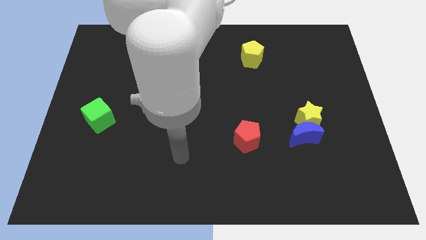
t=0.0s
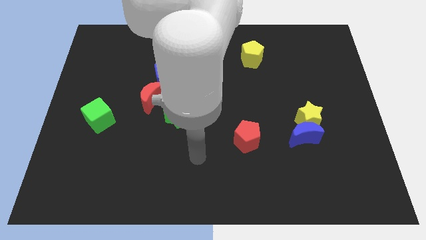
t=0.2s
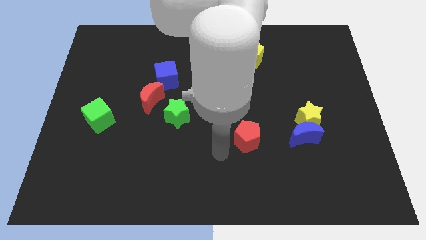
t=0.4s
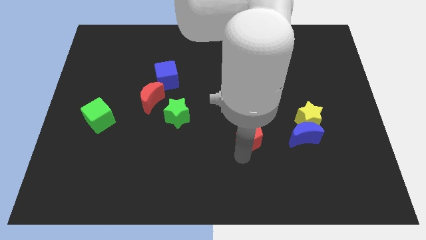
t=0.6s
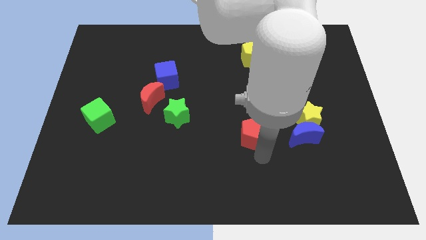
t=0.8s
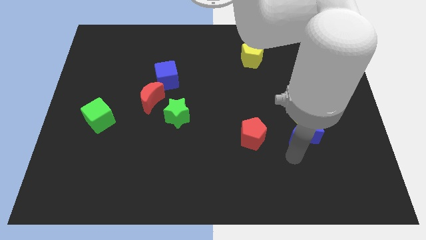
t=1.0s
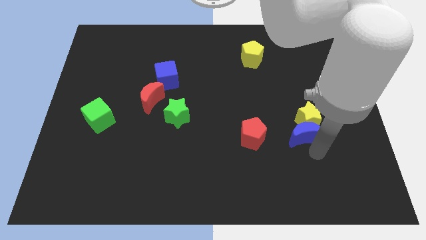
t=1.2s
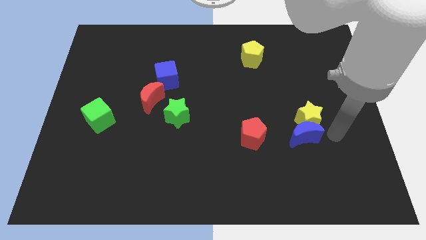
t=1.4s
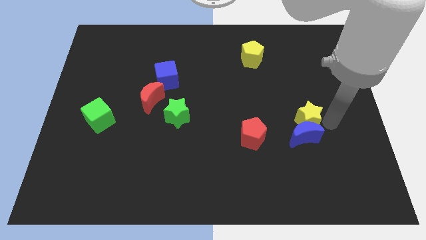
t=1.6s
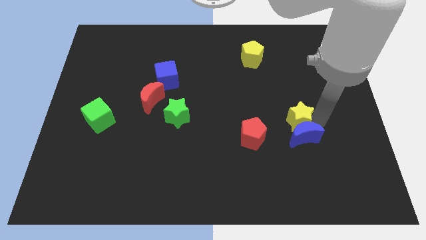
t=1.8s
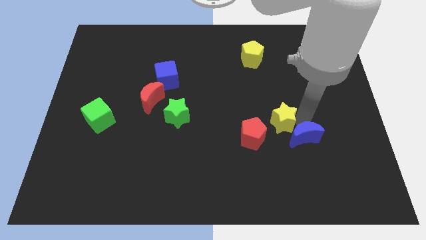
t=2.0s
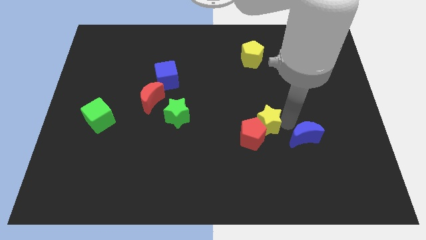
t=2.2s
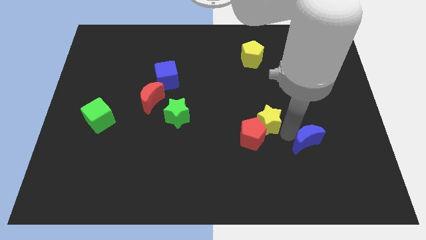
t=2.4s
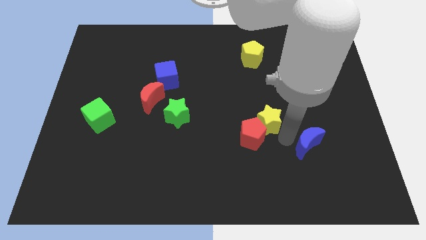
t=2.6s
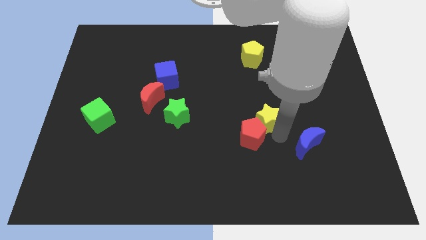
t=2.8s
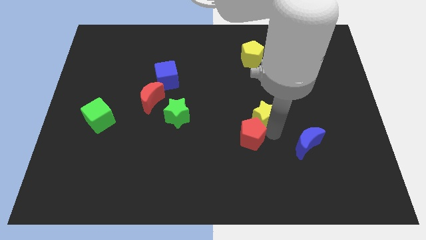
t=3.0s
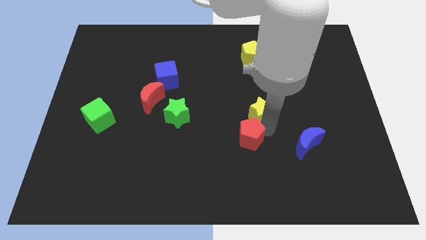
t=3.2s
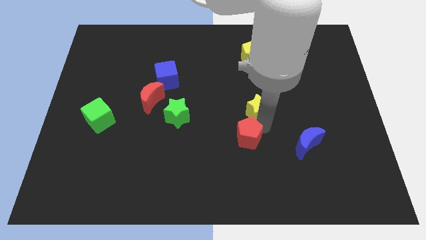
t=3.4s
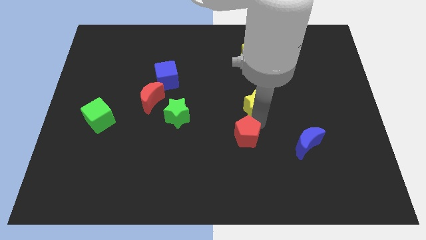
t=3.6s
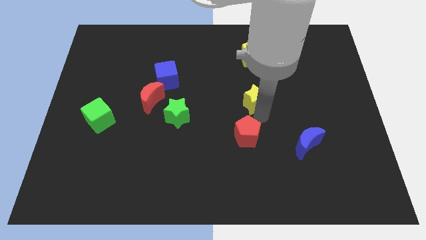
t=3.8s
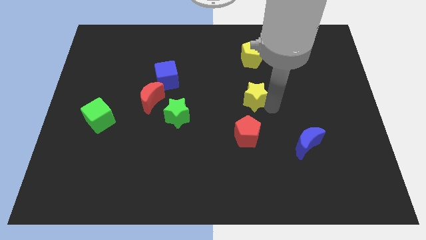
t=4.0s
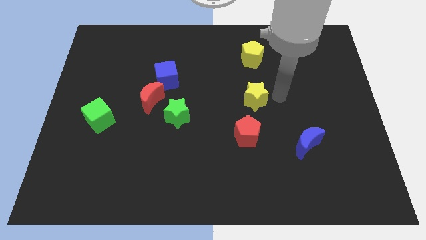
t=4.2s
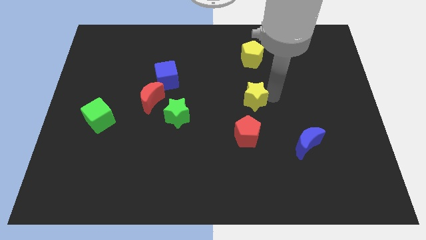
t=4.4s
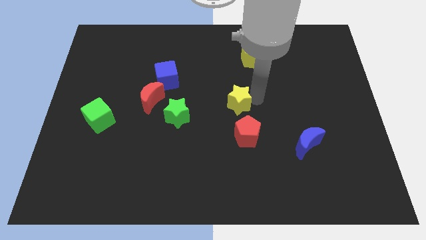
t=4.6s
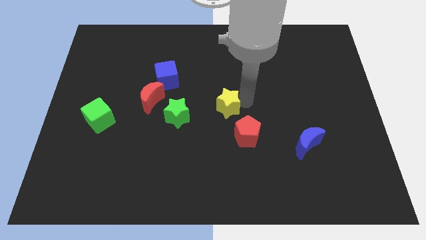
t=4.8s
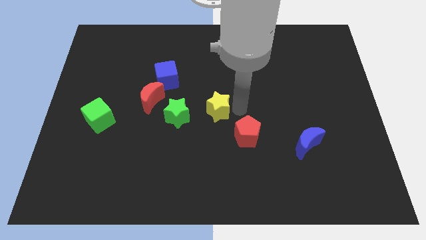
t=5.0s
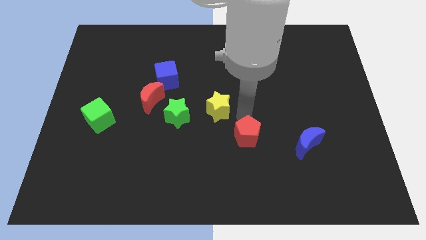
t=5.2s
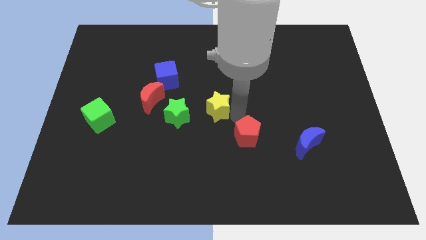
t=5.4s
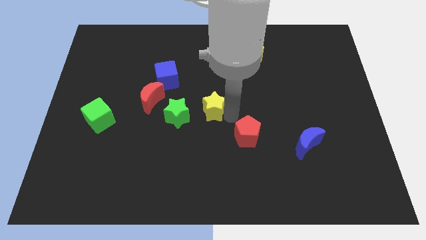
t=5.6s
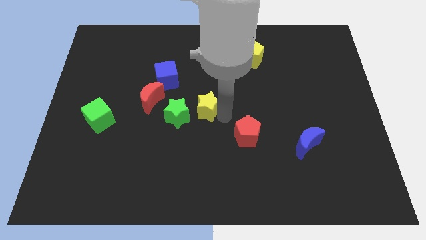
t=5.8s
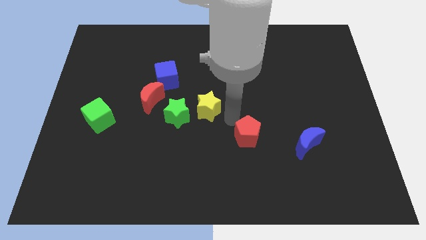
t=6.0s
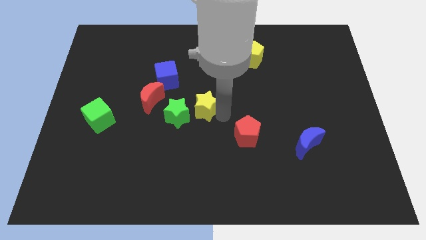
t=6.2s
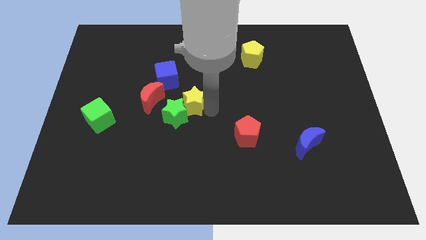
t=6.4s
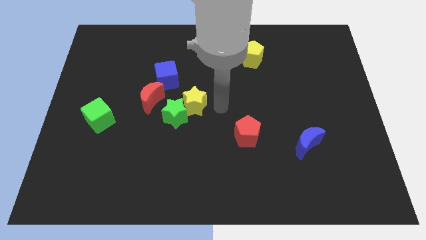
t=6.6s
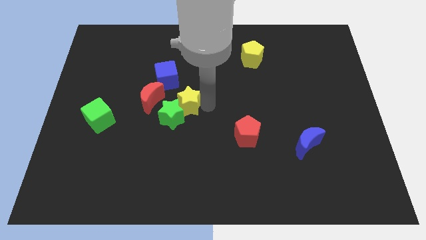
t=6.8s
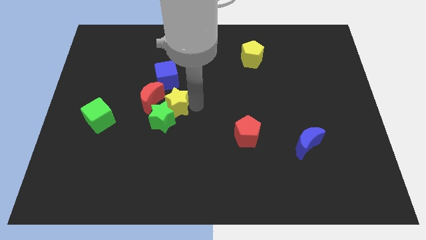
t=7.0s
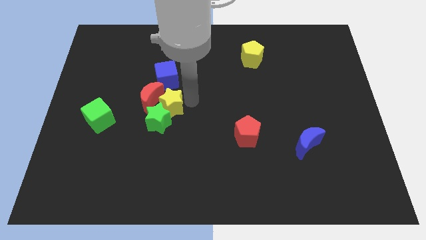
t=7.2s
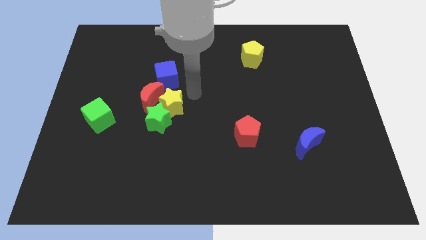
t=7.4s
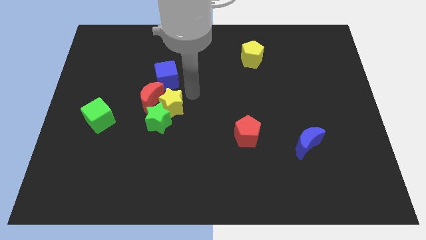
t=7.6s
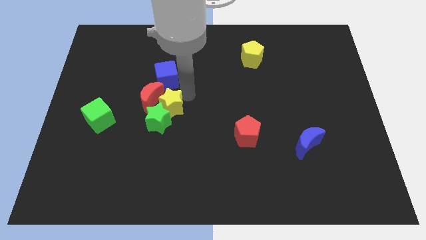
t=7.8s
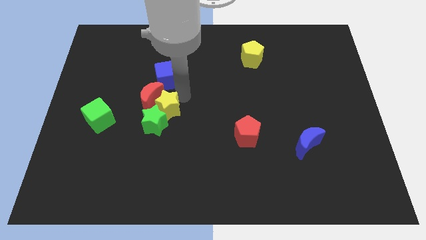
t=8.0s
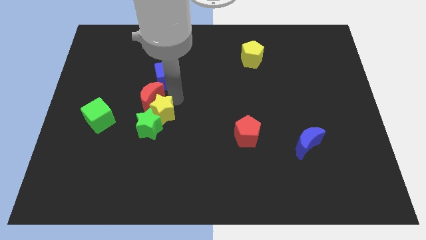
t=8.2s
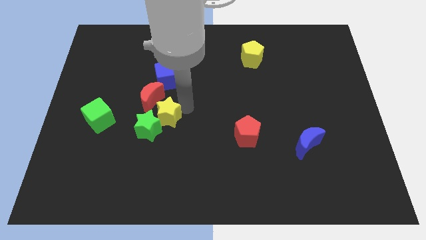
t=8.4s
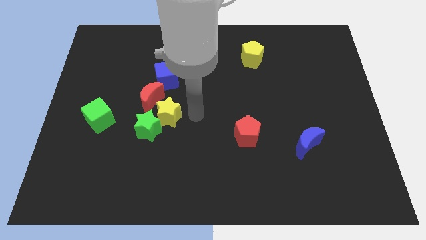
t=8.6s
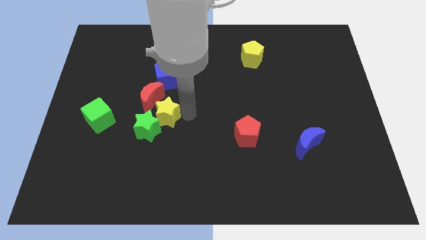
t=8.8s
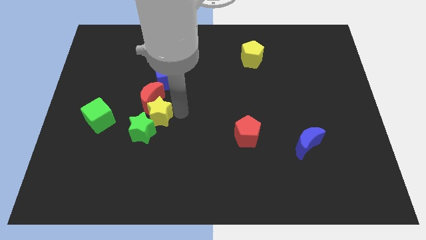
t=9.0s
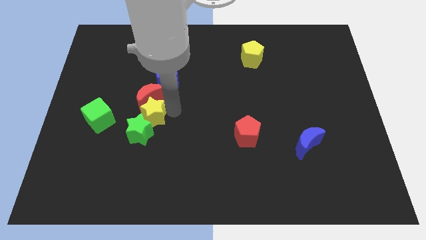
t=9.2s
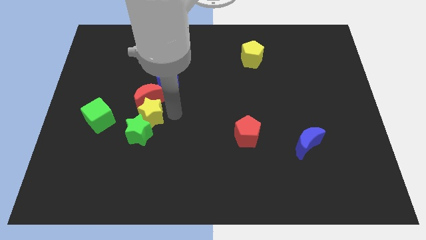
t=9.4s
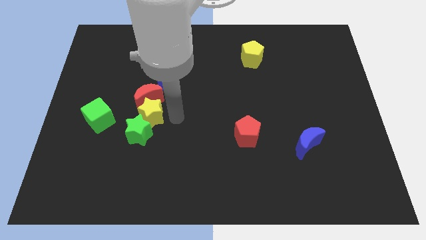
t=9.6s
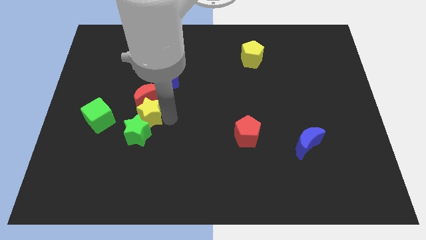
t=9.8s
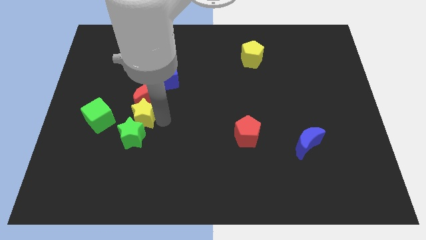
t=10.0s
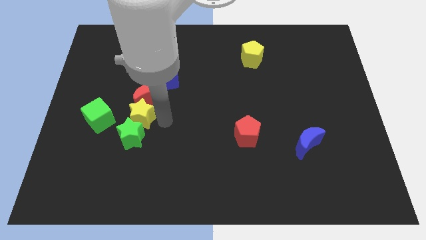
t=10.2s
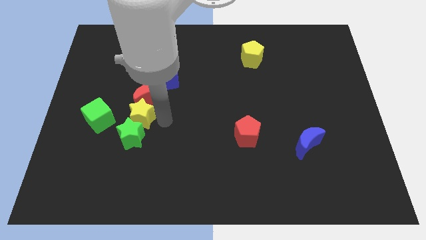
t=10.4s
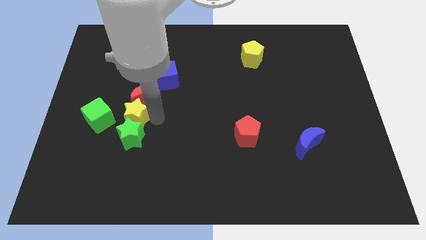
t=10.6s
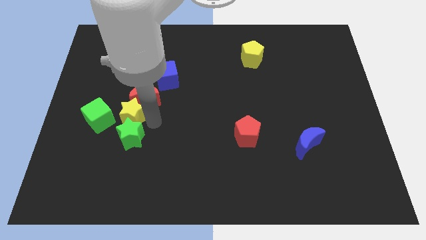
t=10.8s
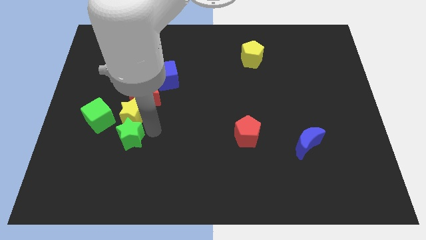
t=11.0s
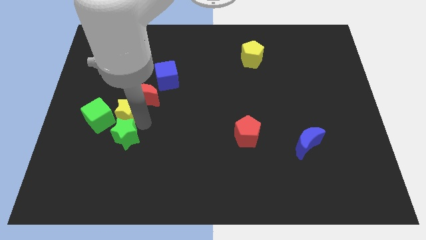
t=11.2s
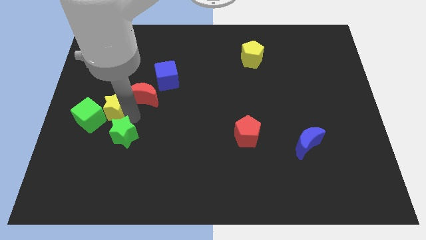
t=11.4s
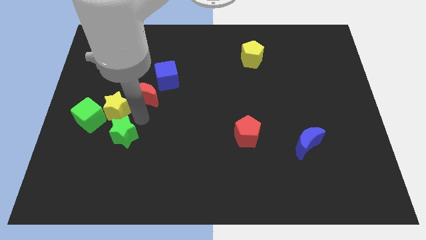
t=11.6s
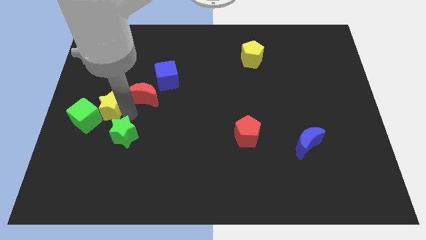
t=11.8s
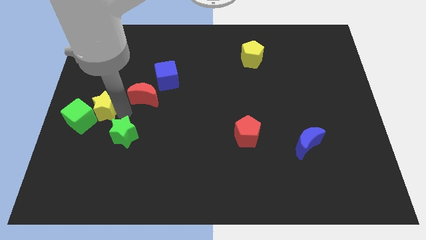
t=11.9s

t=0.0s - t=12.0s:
push the yellow star to the center left

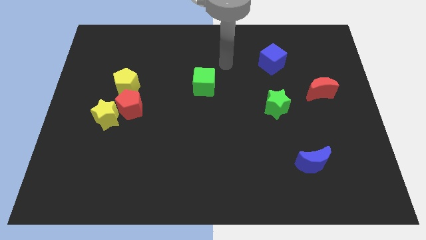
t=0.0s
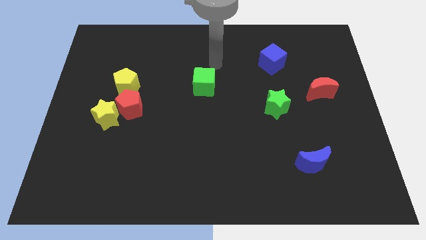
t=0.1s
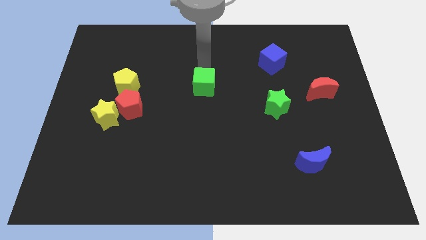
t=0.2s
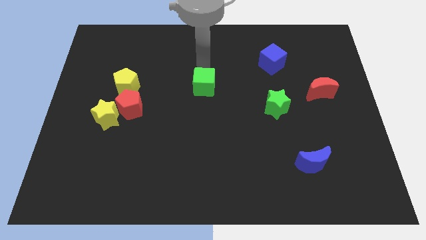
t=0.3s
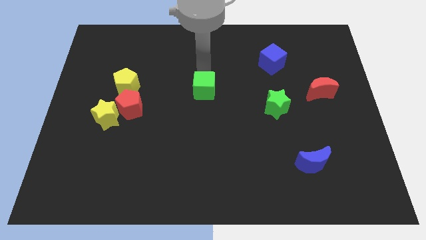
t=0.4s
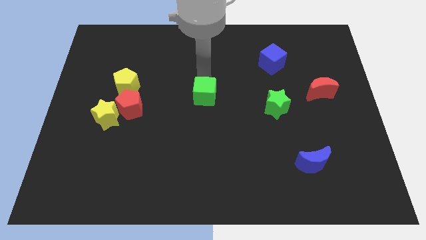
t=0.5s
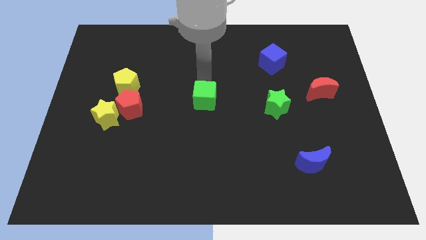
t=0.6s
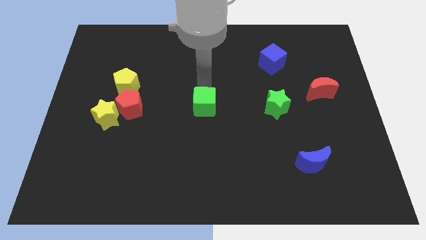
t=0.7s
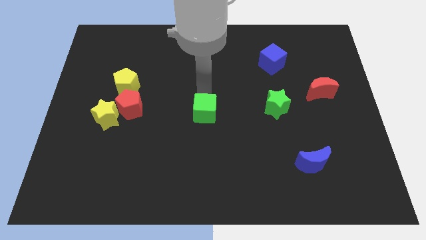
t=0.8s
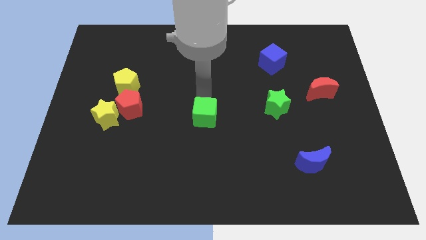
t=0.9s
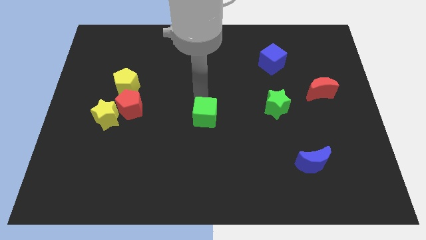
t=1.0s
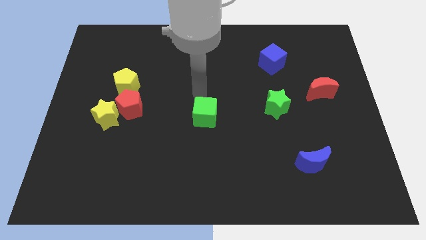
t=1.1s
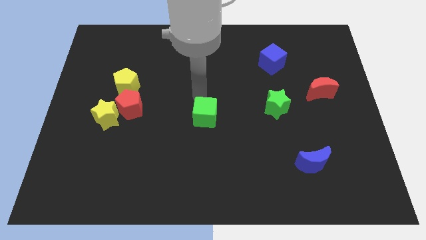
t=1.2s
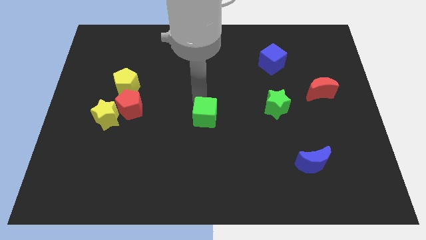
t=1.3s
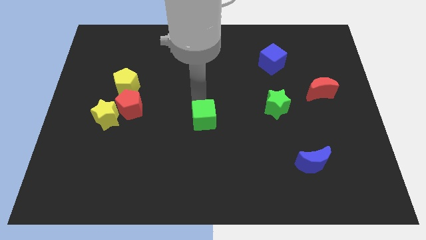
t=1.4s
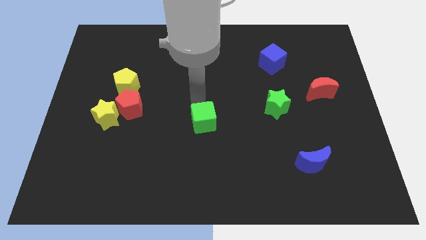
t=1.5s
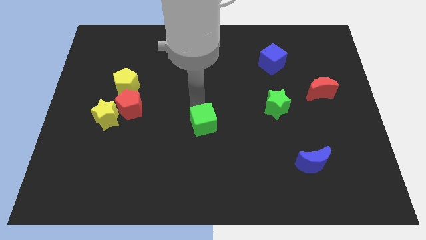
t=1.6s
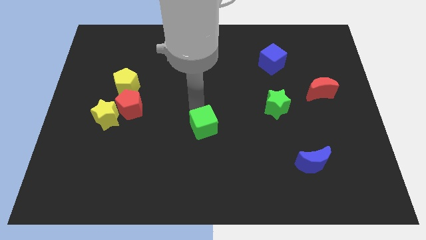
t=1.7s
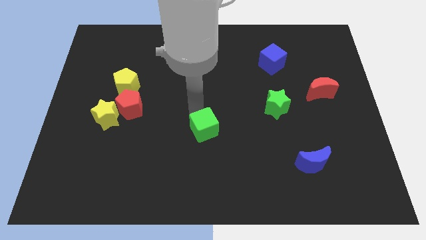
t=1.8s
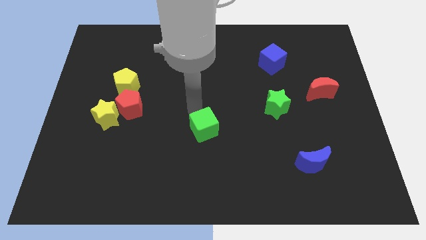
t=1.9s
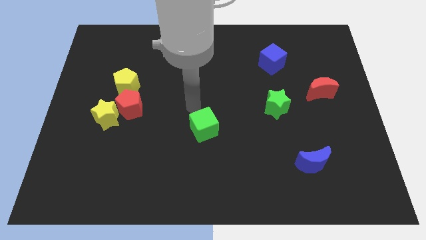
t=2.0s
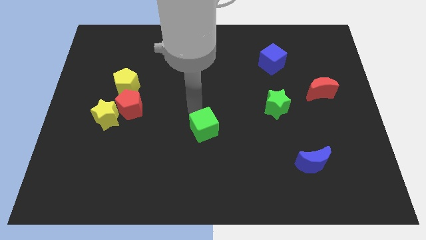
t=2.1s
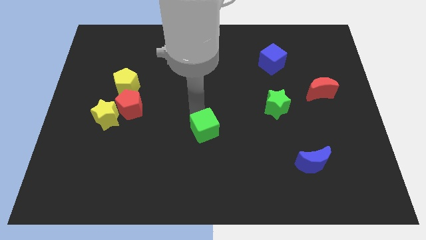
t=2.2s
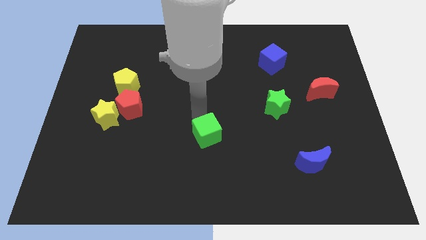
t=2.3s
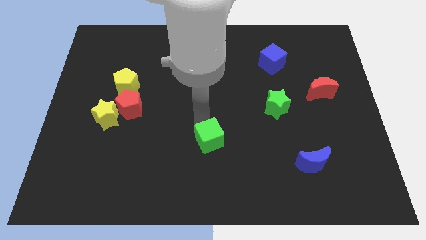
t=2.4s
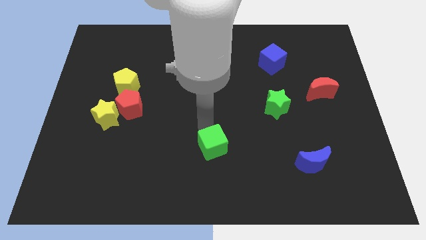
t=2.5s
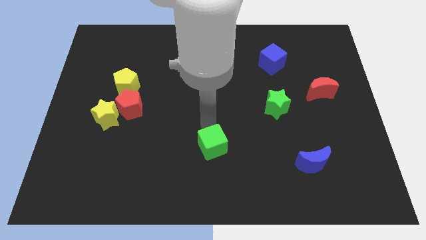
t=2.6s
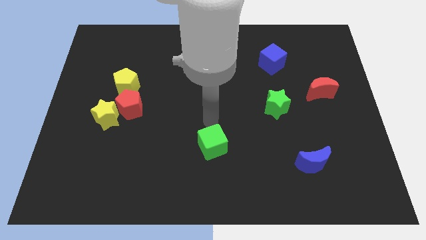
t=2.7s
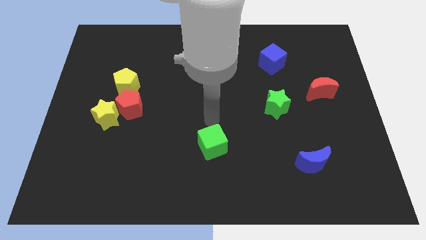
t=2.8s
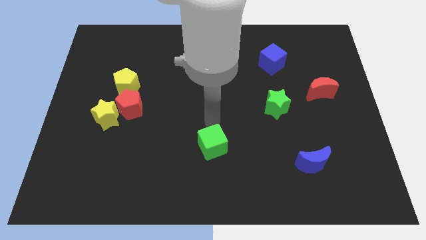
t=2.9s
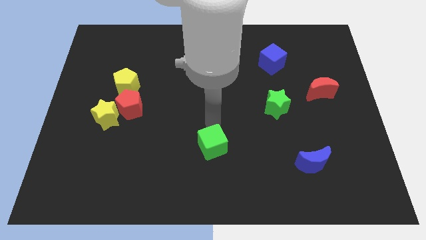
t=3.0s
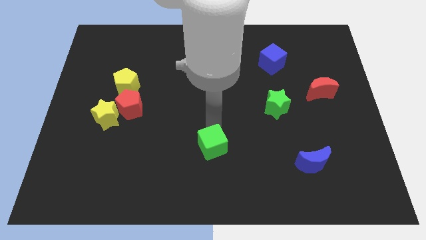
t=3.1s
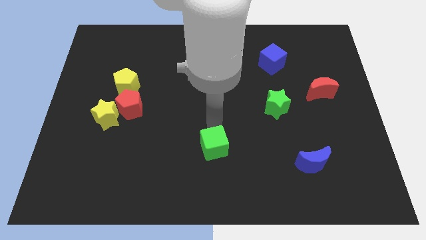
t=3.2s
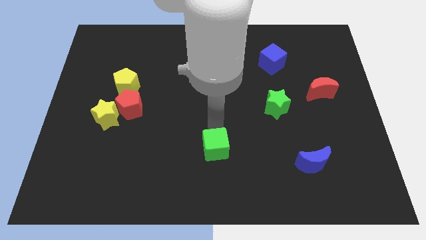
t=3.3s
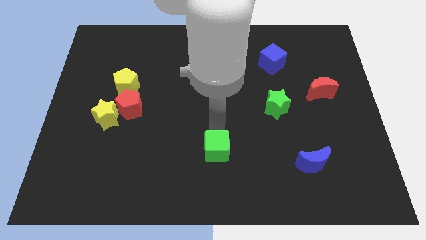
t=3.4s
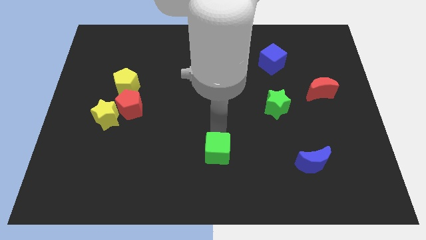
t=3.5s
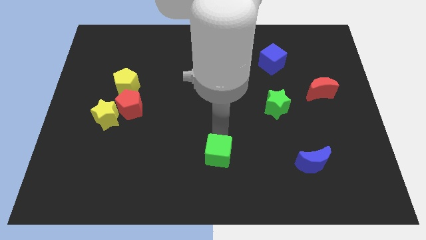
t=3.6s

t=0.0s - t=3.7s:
move the green cube to the bottom
